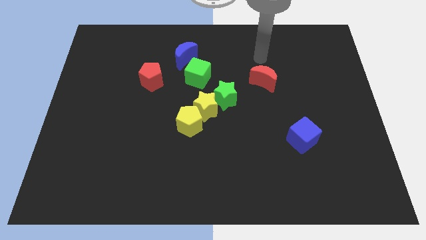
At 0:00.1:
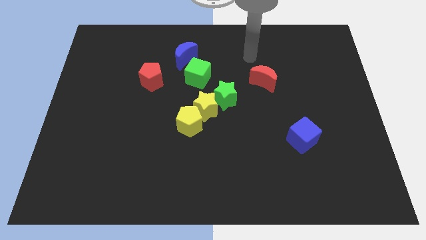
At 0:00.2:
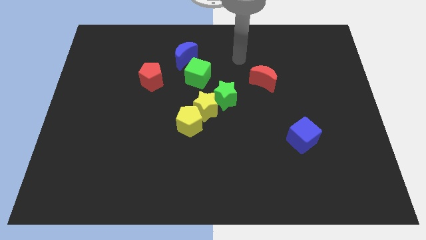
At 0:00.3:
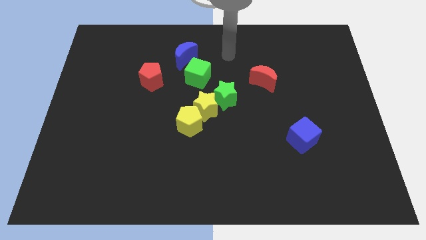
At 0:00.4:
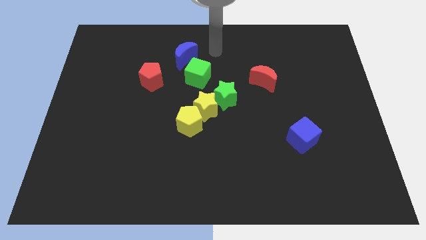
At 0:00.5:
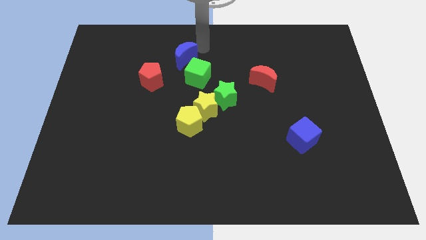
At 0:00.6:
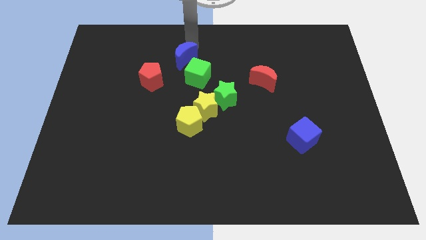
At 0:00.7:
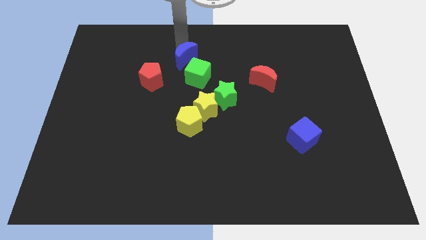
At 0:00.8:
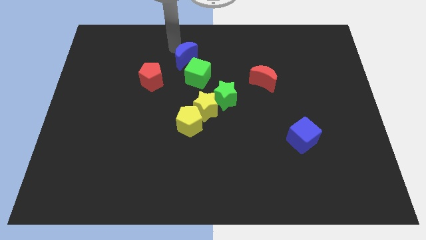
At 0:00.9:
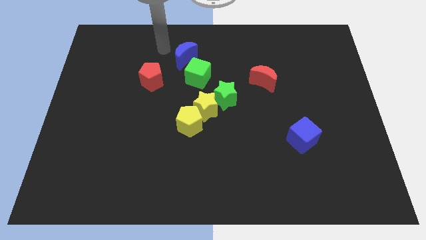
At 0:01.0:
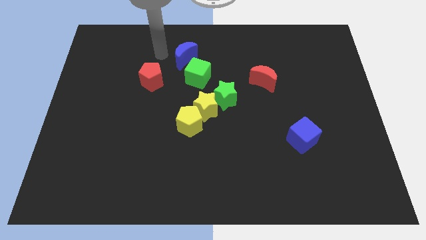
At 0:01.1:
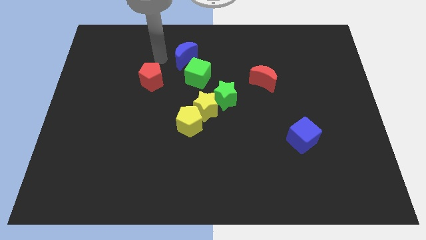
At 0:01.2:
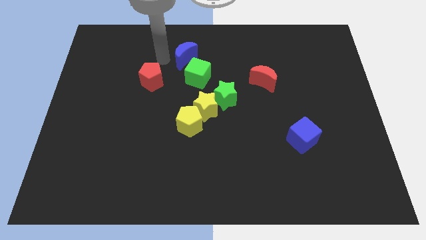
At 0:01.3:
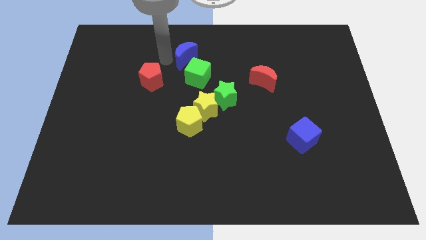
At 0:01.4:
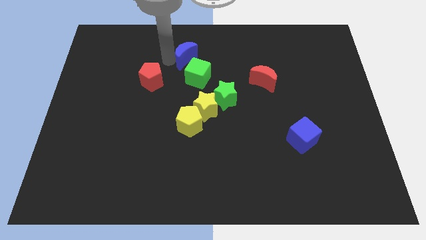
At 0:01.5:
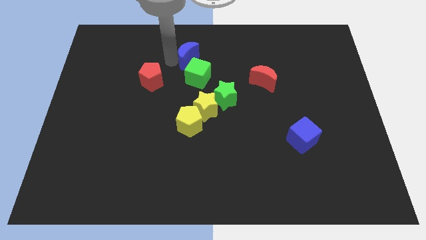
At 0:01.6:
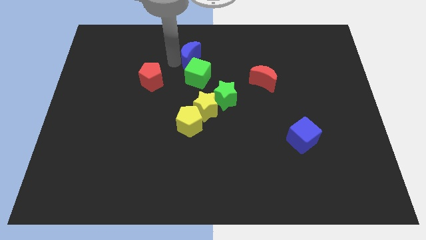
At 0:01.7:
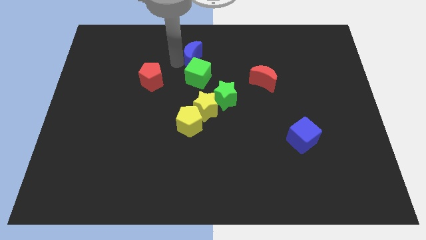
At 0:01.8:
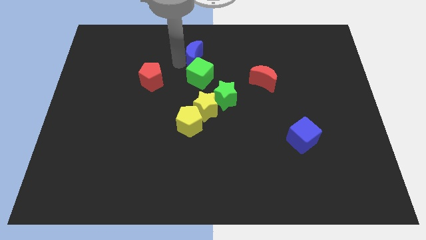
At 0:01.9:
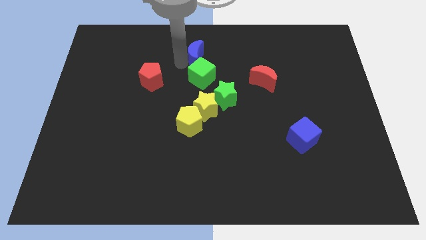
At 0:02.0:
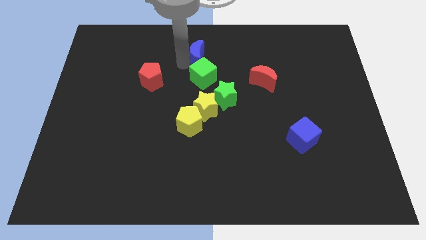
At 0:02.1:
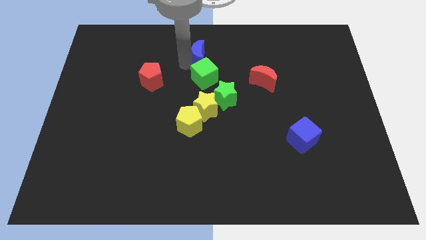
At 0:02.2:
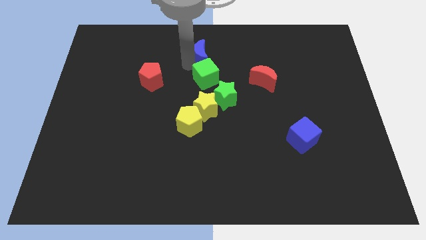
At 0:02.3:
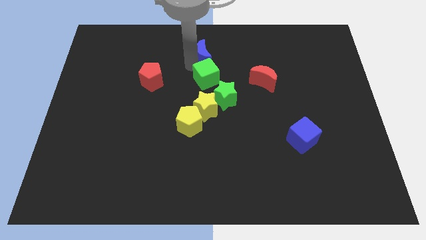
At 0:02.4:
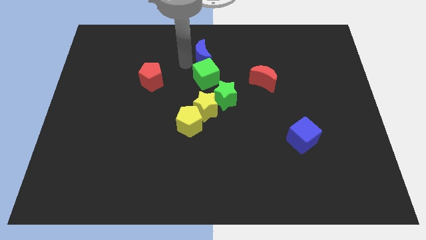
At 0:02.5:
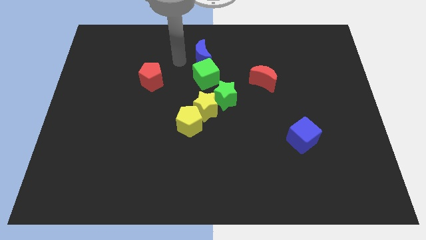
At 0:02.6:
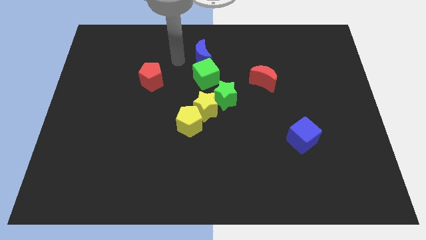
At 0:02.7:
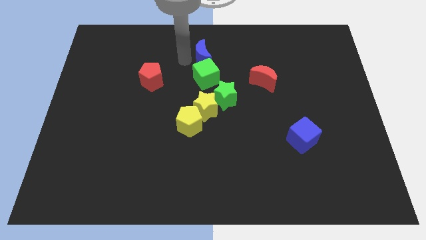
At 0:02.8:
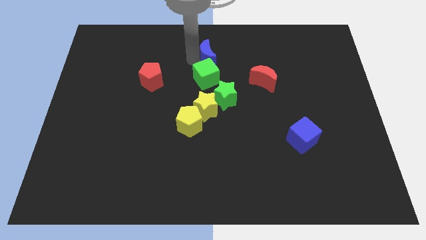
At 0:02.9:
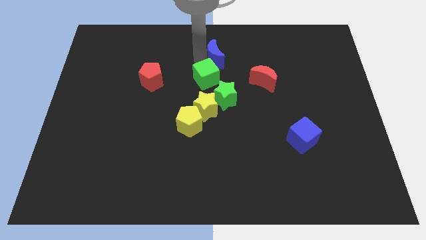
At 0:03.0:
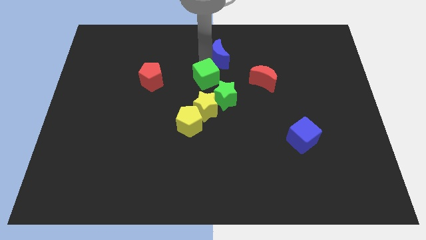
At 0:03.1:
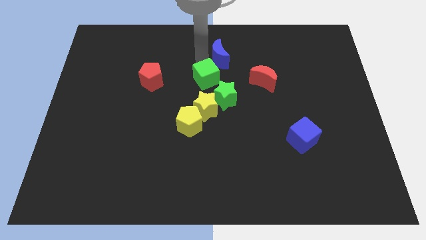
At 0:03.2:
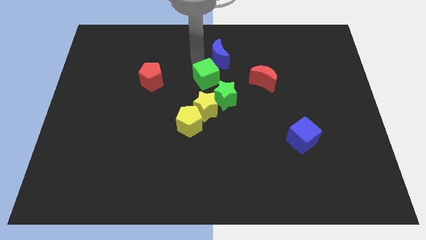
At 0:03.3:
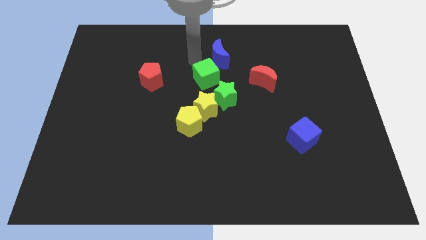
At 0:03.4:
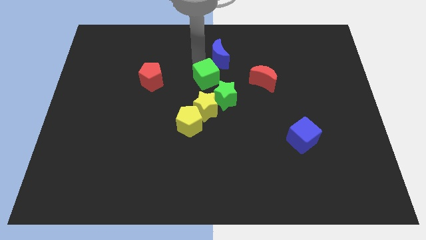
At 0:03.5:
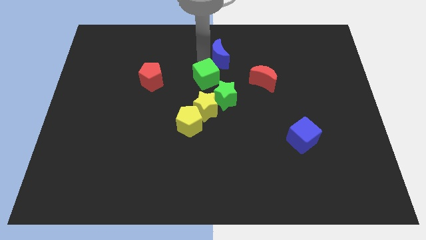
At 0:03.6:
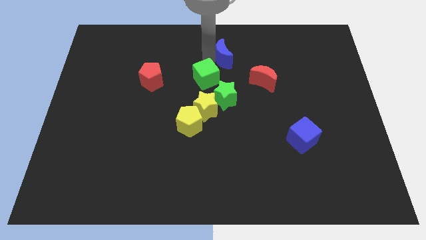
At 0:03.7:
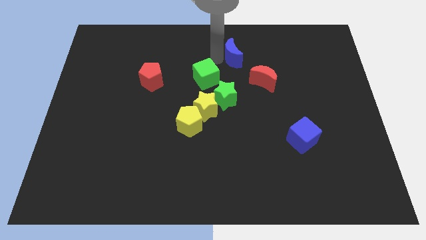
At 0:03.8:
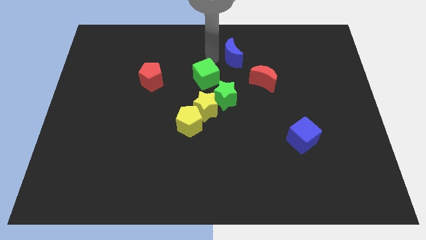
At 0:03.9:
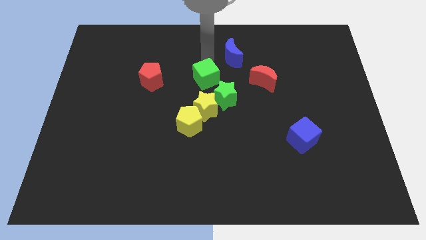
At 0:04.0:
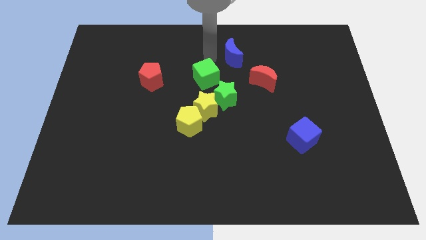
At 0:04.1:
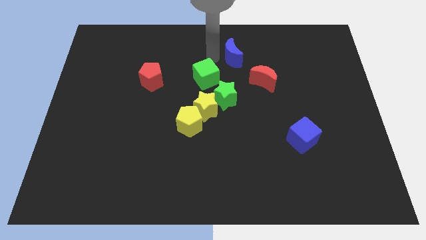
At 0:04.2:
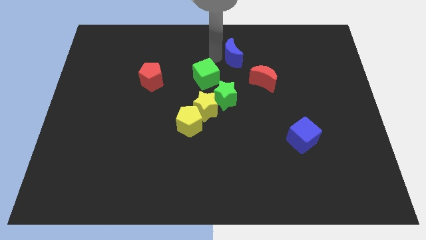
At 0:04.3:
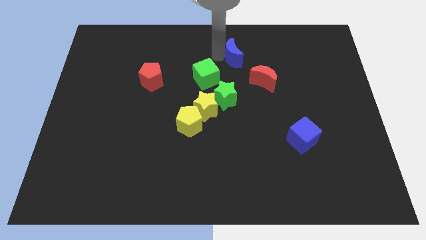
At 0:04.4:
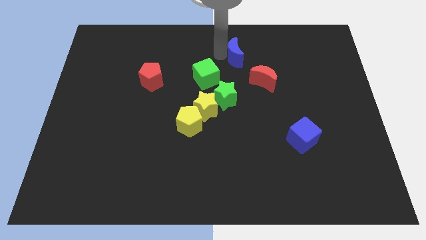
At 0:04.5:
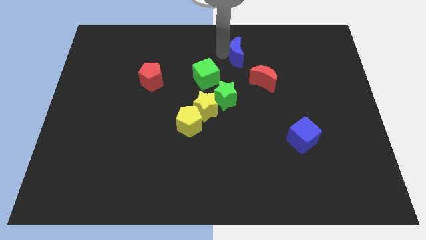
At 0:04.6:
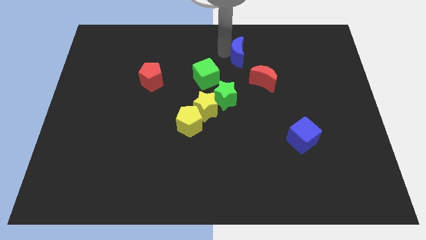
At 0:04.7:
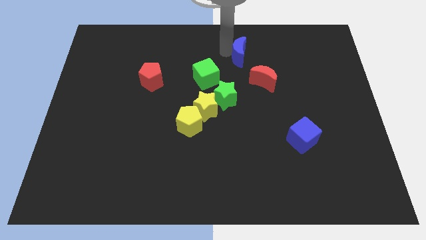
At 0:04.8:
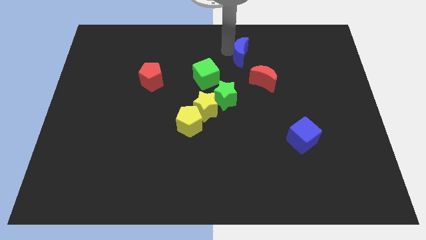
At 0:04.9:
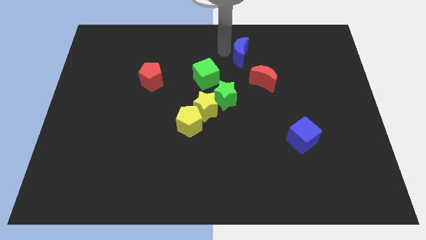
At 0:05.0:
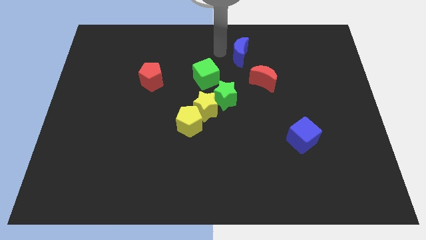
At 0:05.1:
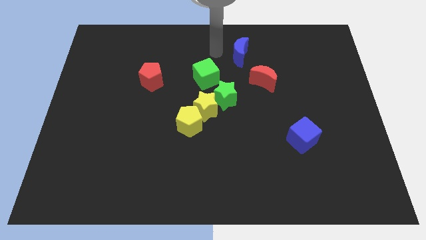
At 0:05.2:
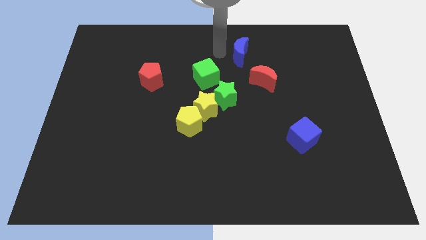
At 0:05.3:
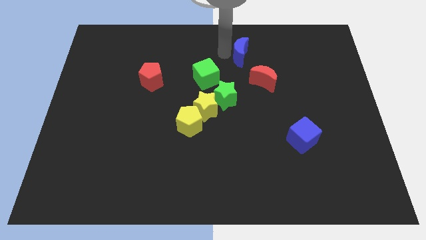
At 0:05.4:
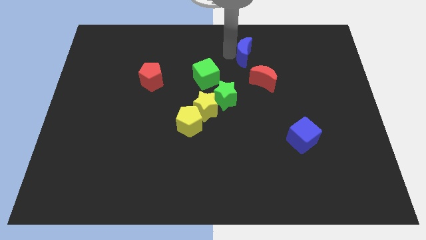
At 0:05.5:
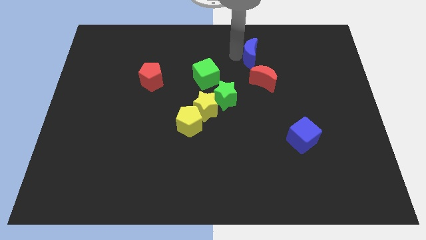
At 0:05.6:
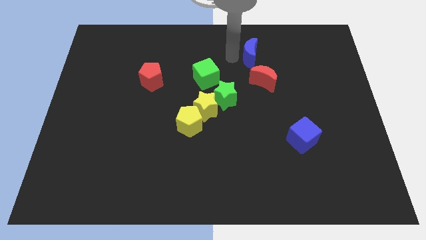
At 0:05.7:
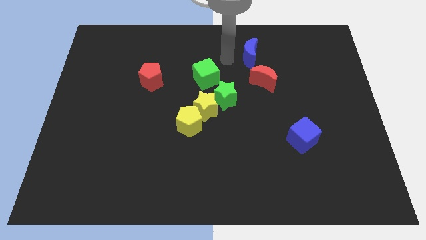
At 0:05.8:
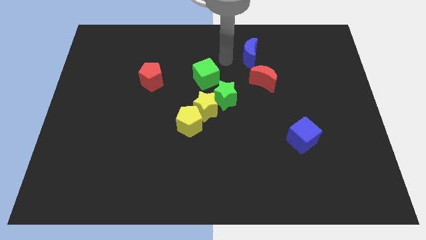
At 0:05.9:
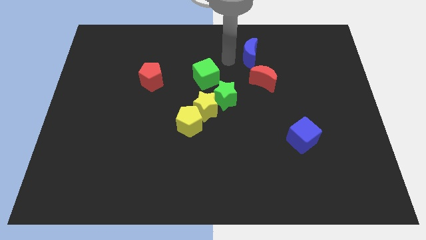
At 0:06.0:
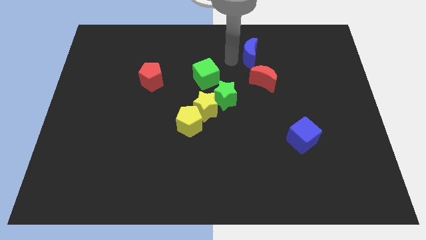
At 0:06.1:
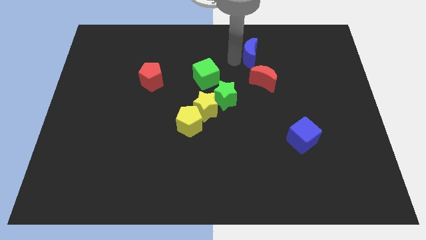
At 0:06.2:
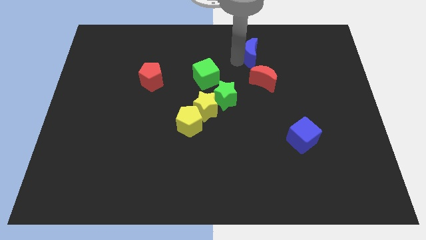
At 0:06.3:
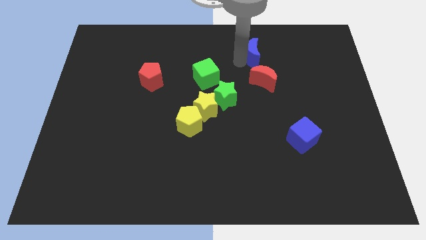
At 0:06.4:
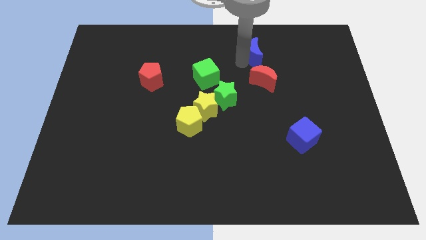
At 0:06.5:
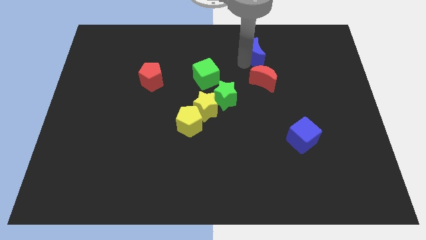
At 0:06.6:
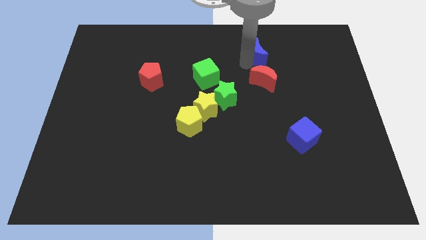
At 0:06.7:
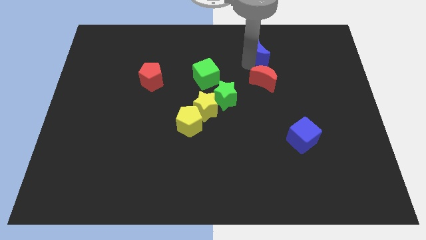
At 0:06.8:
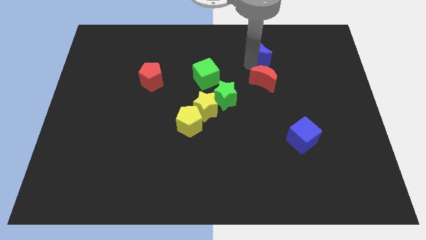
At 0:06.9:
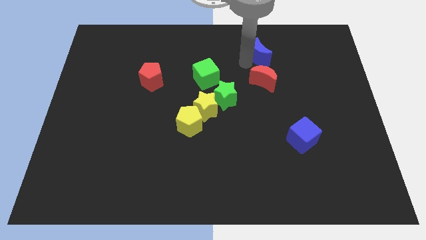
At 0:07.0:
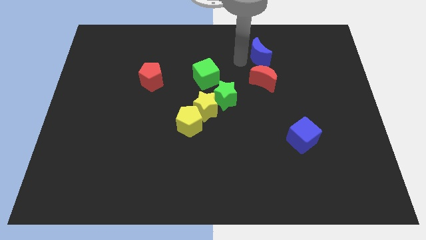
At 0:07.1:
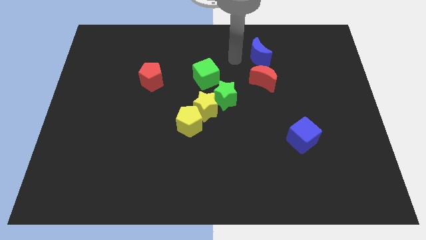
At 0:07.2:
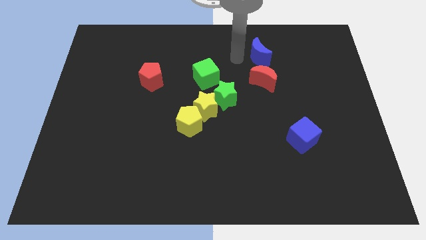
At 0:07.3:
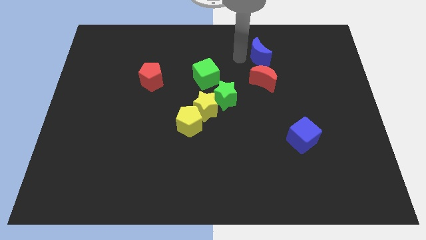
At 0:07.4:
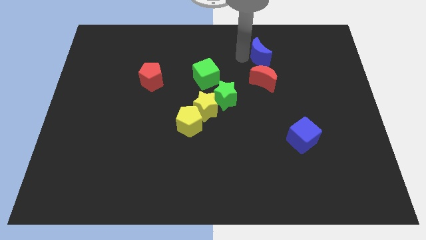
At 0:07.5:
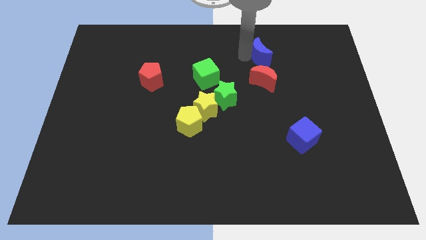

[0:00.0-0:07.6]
slide the blue moon to the right

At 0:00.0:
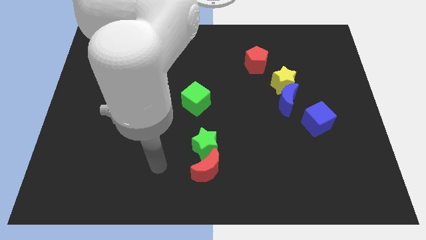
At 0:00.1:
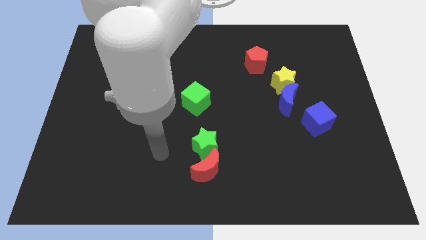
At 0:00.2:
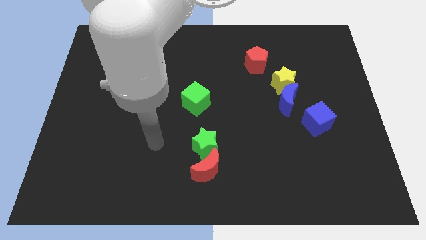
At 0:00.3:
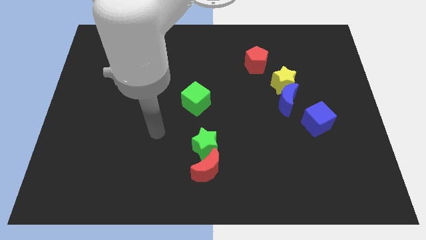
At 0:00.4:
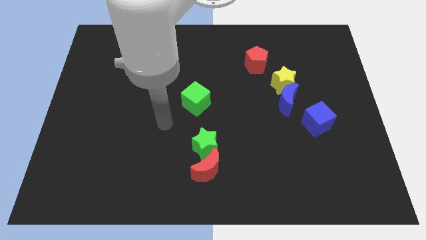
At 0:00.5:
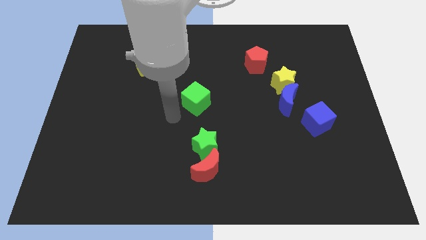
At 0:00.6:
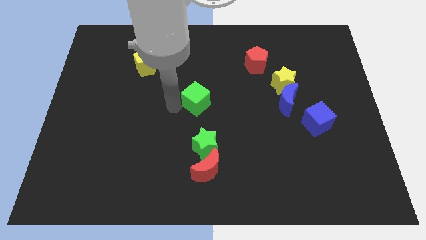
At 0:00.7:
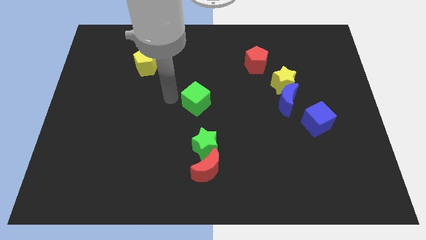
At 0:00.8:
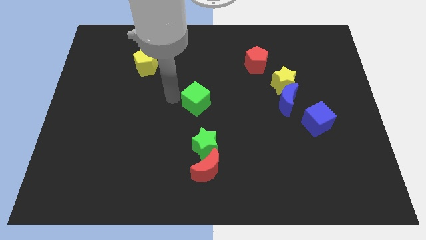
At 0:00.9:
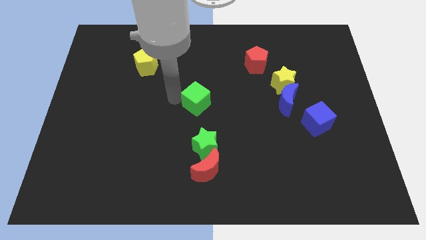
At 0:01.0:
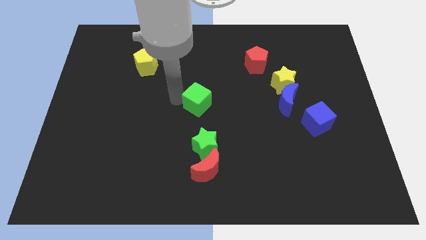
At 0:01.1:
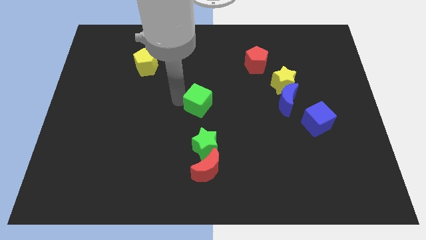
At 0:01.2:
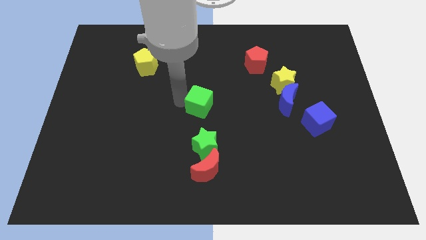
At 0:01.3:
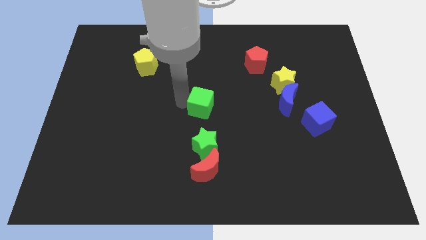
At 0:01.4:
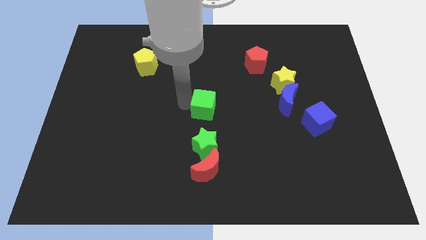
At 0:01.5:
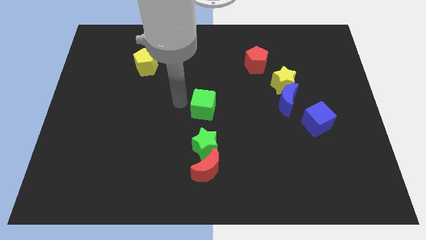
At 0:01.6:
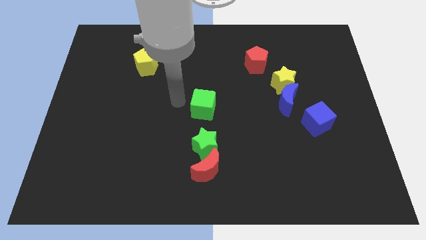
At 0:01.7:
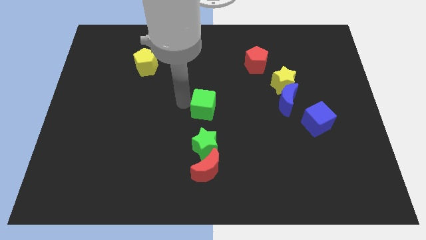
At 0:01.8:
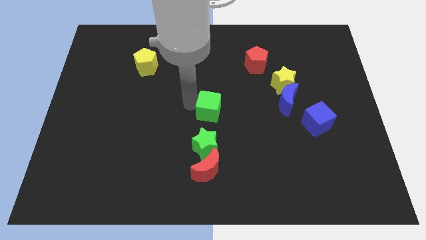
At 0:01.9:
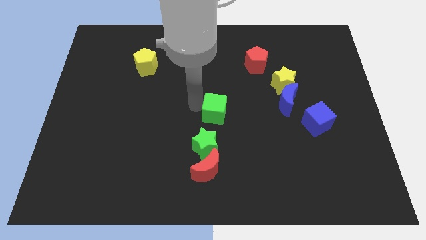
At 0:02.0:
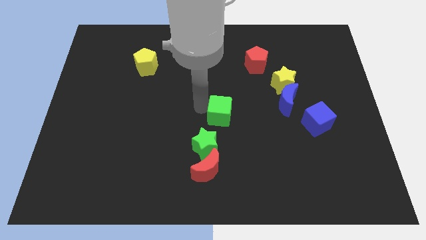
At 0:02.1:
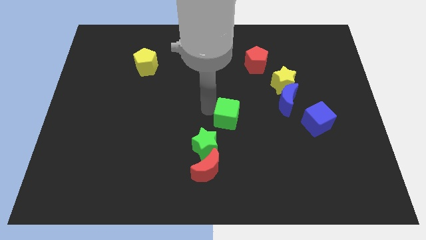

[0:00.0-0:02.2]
slightly slide the green cube downwards and to the right diagonally
